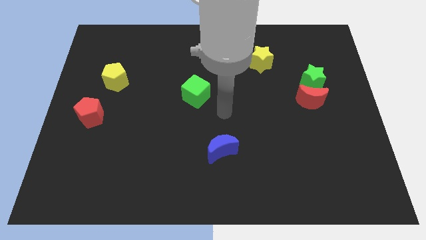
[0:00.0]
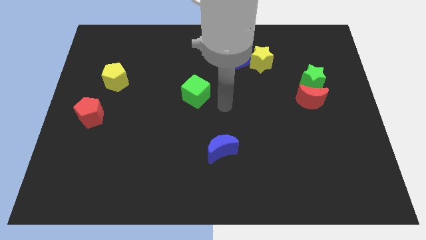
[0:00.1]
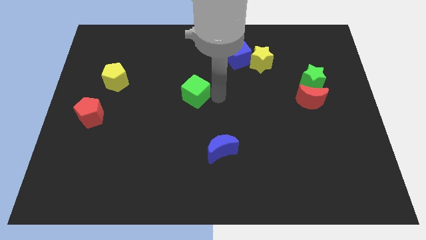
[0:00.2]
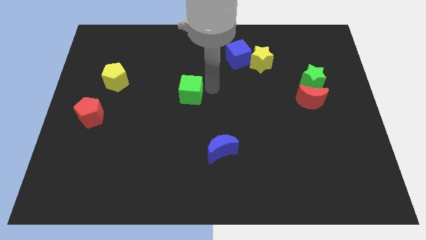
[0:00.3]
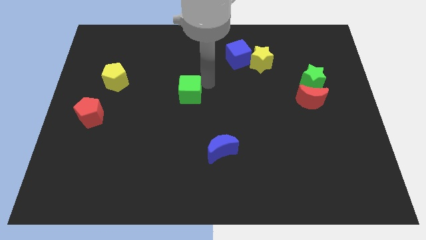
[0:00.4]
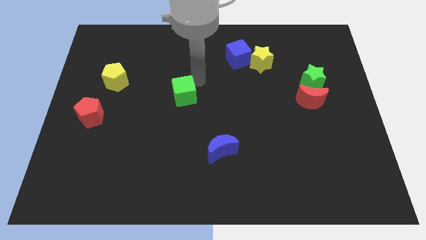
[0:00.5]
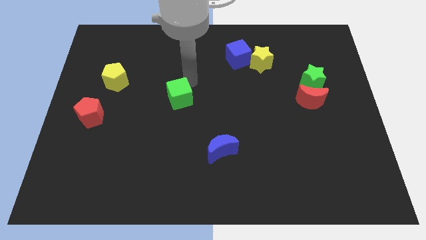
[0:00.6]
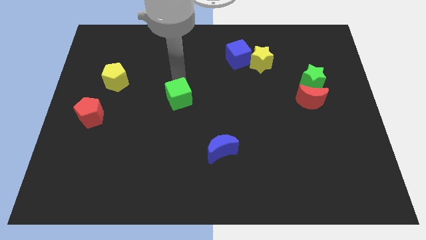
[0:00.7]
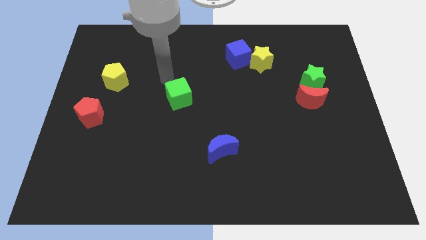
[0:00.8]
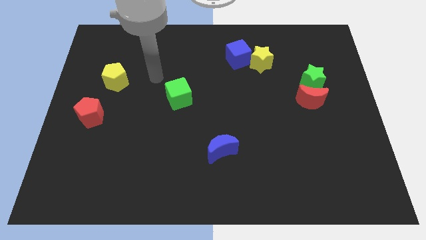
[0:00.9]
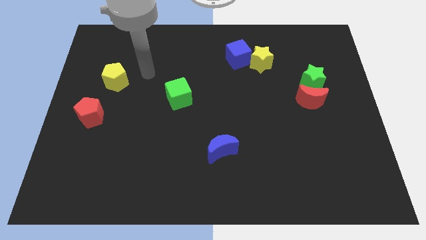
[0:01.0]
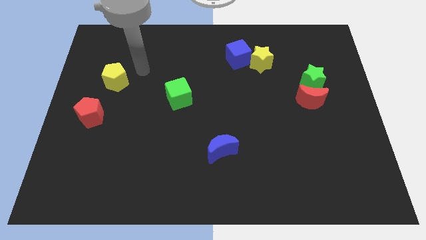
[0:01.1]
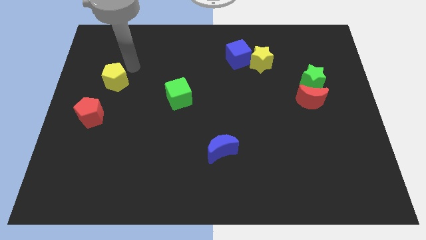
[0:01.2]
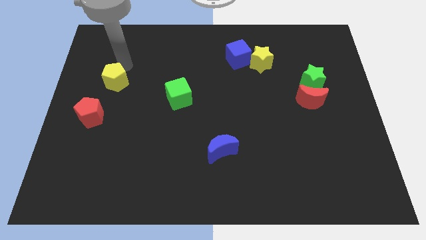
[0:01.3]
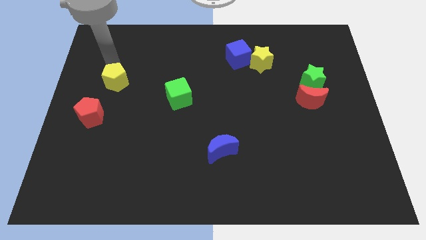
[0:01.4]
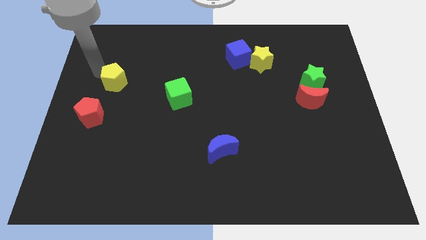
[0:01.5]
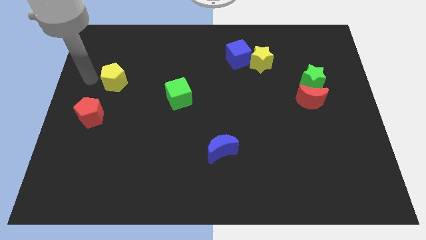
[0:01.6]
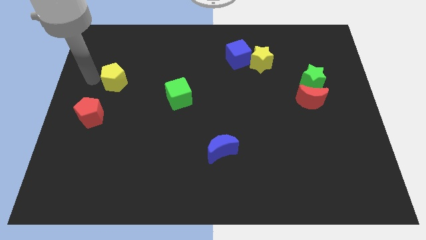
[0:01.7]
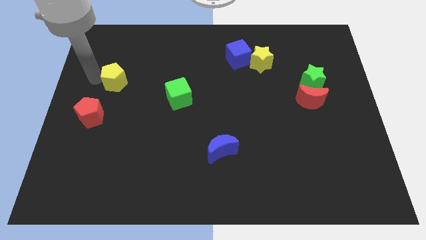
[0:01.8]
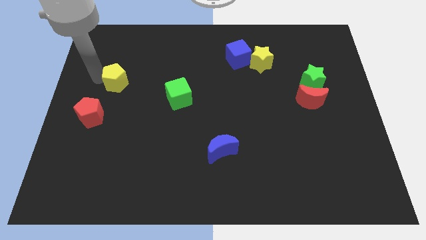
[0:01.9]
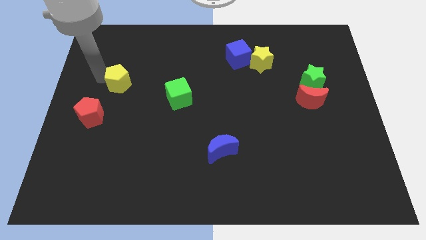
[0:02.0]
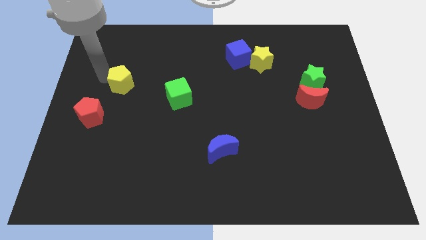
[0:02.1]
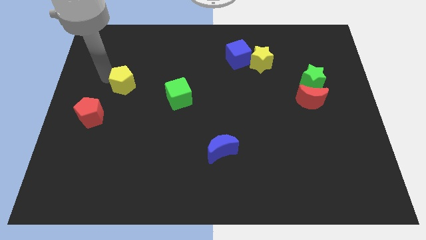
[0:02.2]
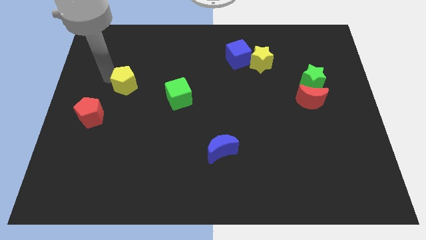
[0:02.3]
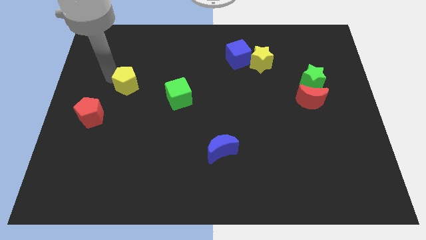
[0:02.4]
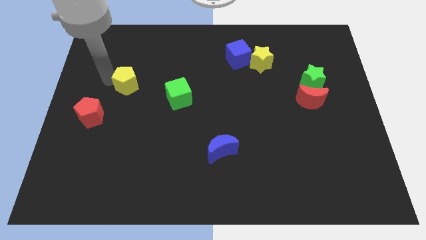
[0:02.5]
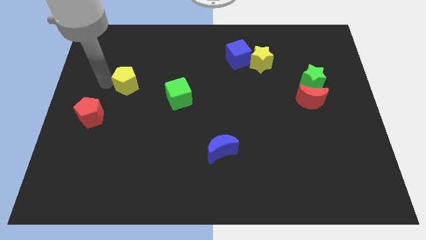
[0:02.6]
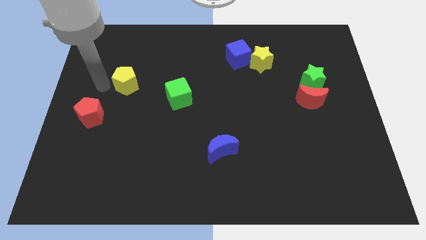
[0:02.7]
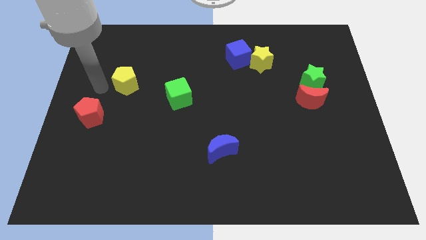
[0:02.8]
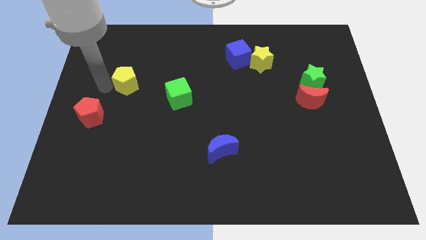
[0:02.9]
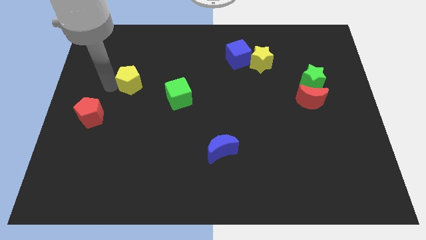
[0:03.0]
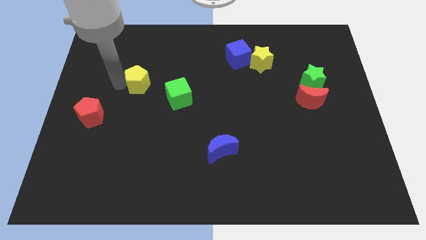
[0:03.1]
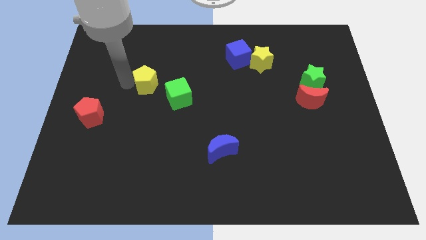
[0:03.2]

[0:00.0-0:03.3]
move the yellow pentagon a little right

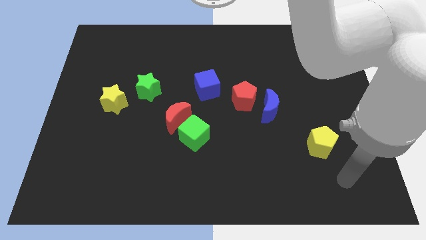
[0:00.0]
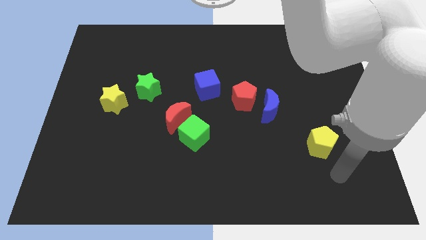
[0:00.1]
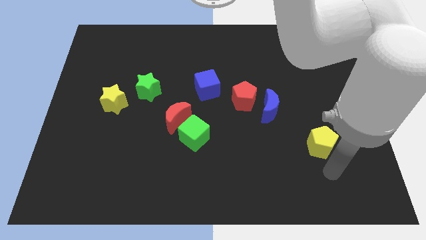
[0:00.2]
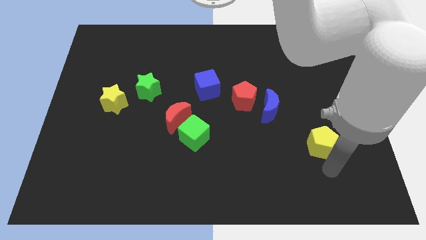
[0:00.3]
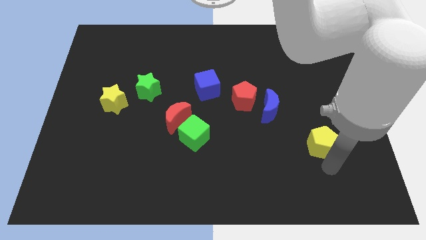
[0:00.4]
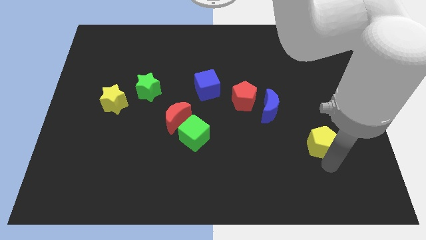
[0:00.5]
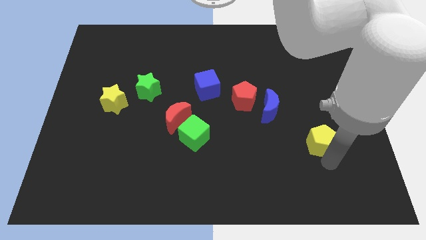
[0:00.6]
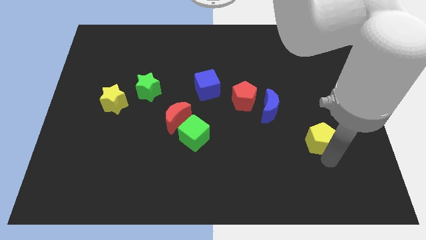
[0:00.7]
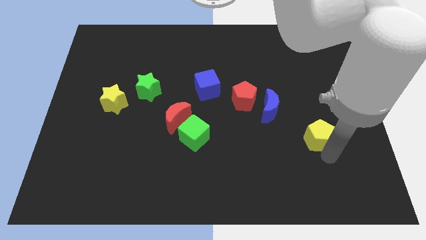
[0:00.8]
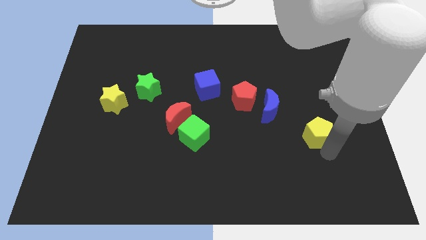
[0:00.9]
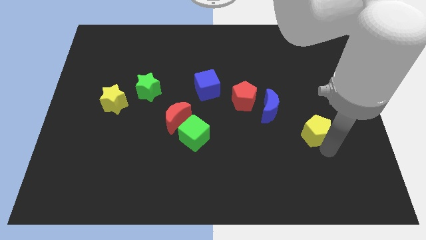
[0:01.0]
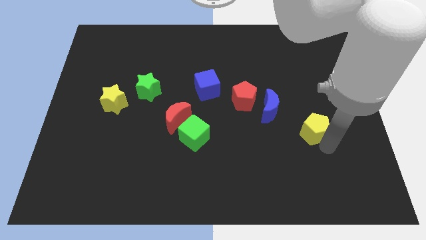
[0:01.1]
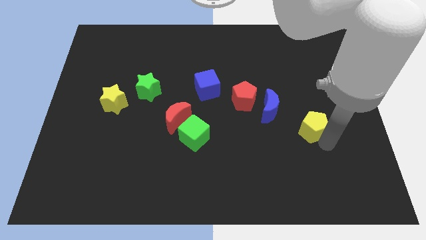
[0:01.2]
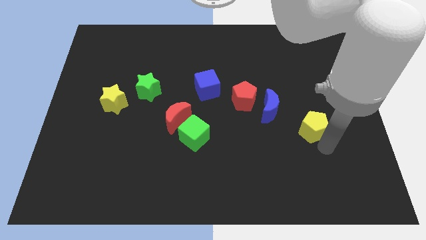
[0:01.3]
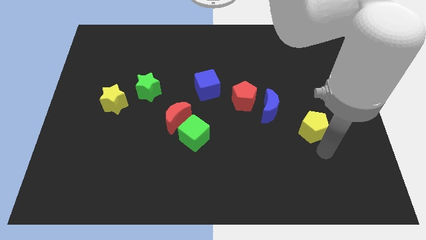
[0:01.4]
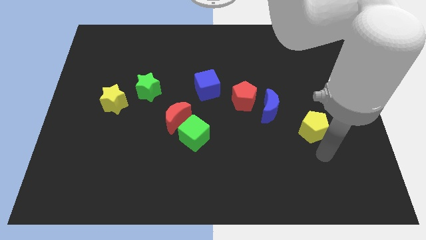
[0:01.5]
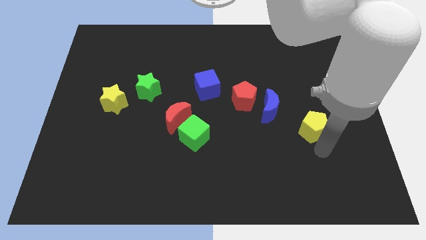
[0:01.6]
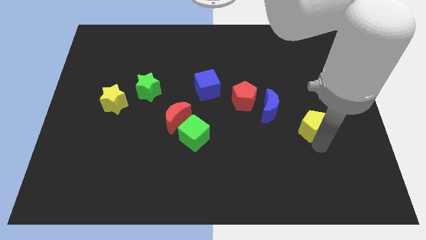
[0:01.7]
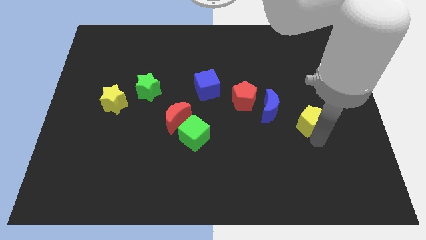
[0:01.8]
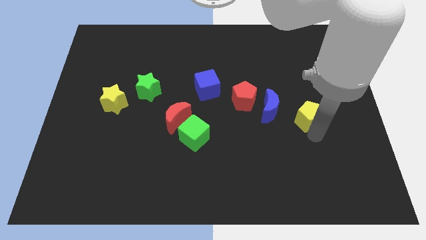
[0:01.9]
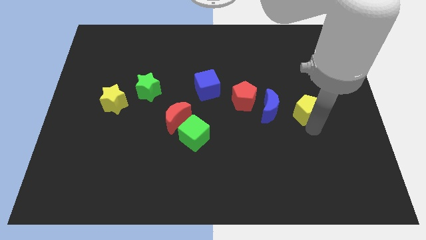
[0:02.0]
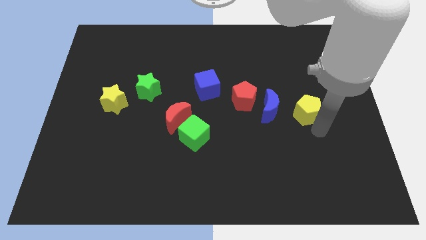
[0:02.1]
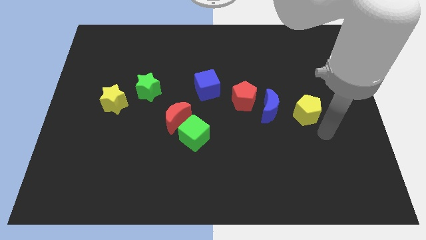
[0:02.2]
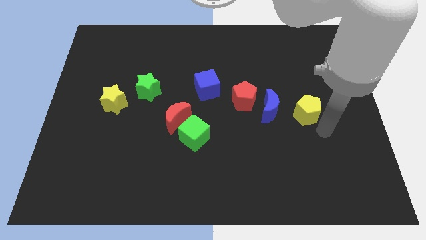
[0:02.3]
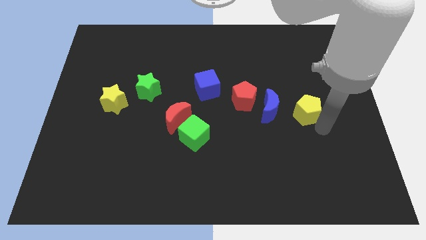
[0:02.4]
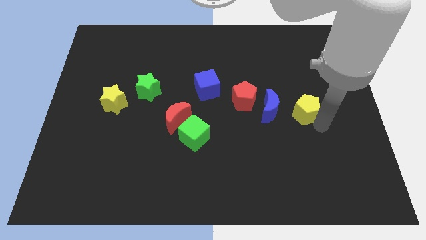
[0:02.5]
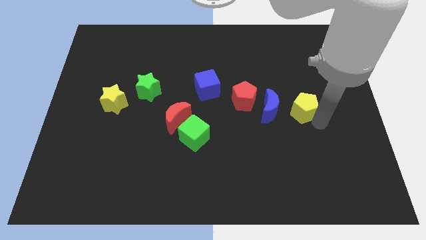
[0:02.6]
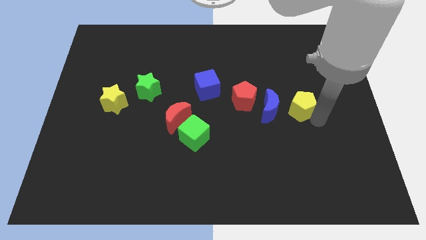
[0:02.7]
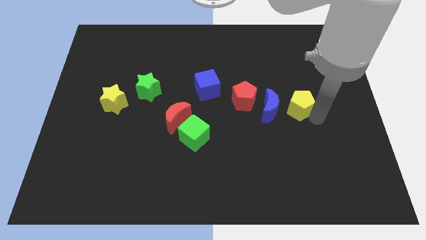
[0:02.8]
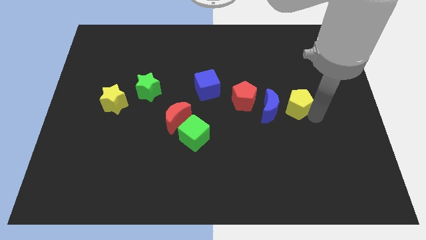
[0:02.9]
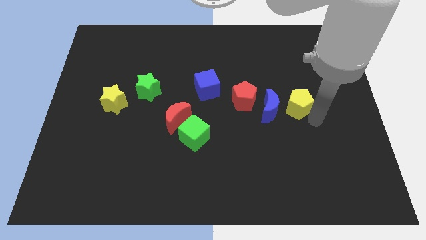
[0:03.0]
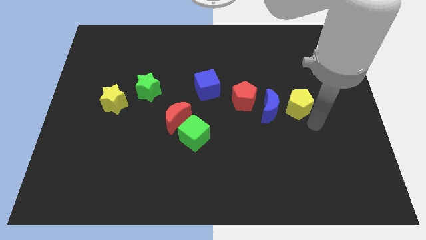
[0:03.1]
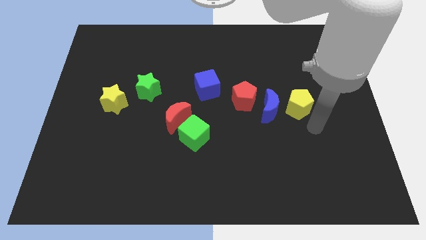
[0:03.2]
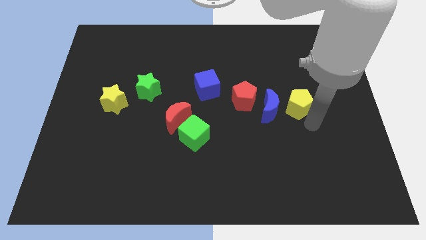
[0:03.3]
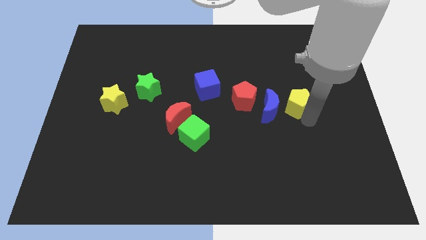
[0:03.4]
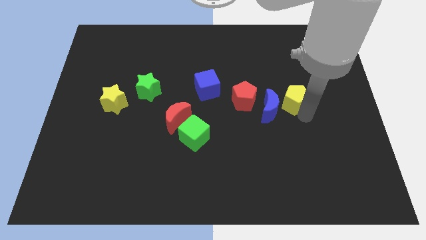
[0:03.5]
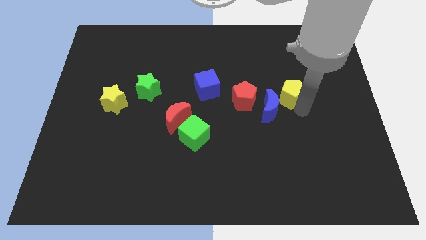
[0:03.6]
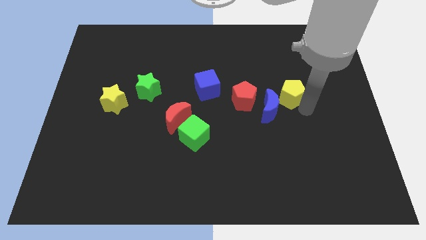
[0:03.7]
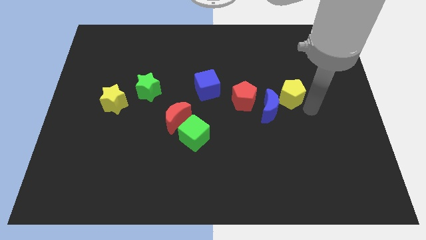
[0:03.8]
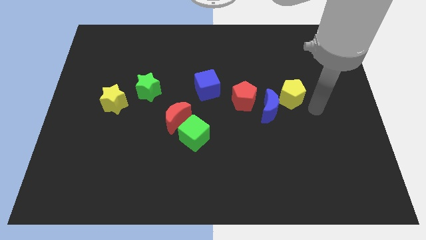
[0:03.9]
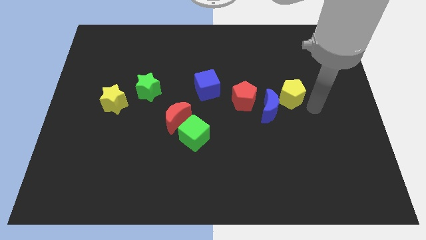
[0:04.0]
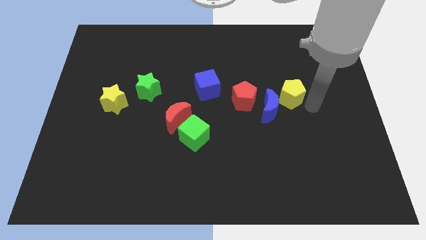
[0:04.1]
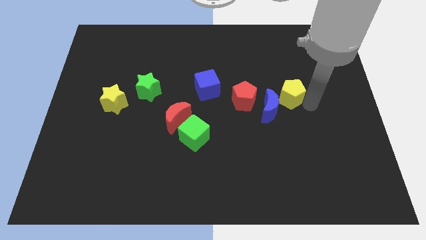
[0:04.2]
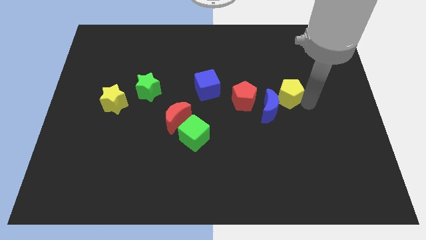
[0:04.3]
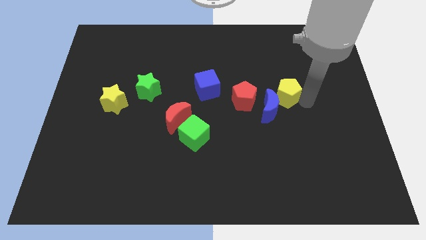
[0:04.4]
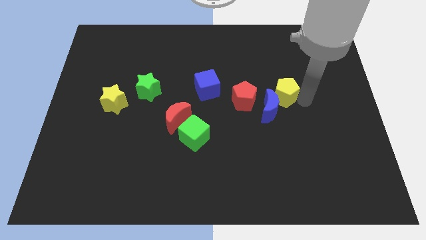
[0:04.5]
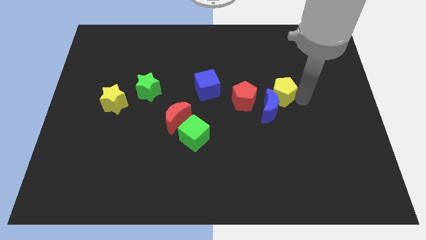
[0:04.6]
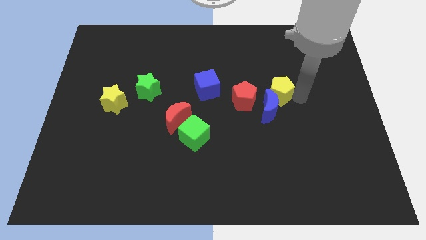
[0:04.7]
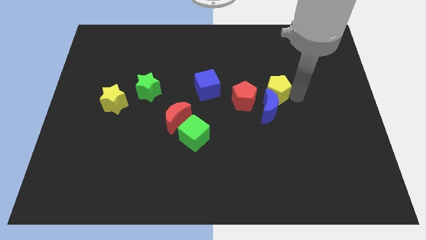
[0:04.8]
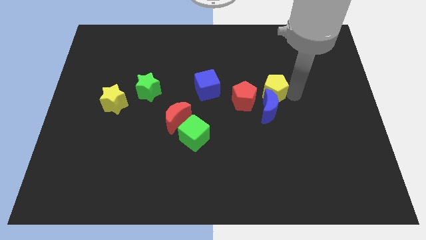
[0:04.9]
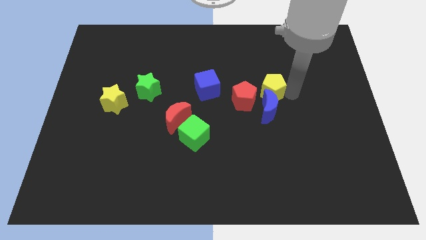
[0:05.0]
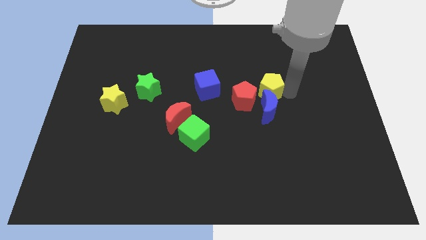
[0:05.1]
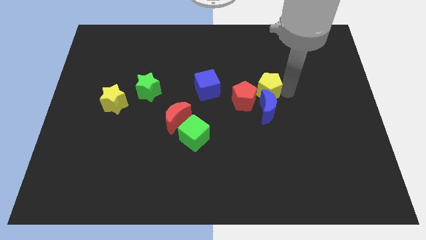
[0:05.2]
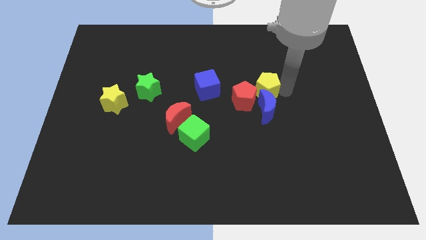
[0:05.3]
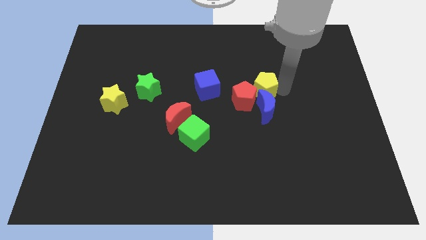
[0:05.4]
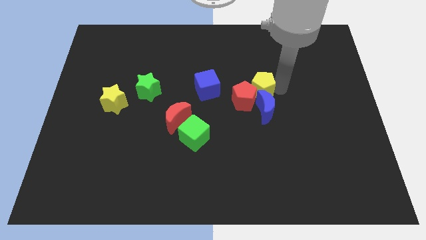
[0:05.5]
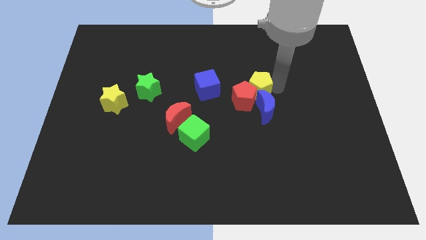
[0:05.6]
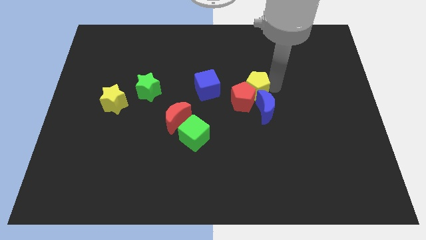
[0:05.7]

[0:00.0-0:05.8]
move the yellow pentagon up and then left
